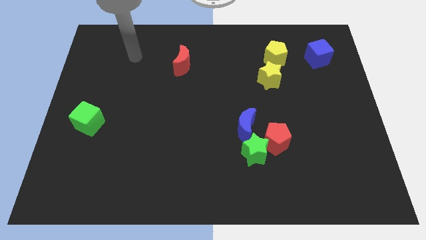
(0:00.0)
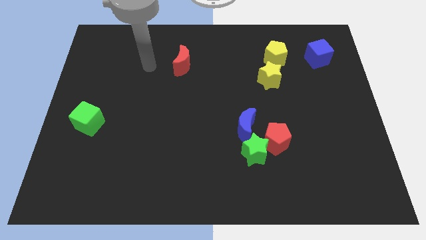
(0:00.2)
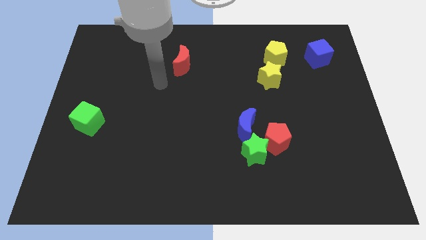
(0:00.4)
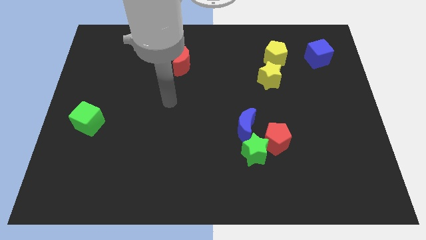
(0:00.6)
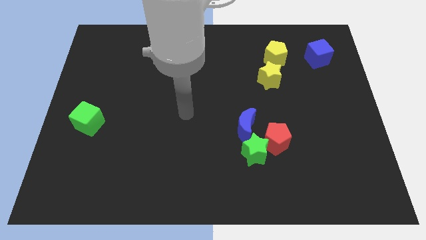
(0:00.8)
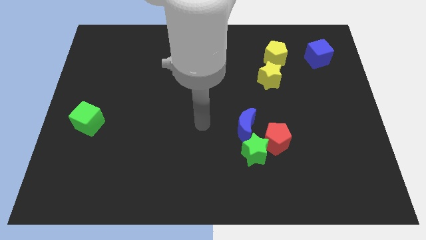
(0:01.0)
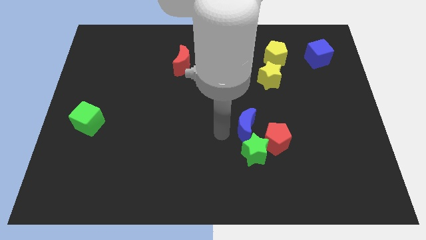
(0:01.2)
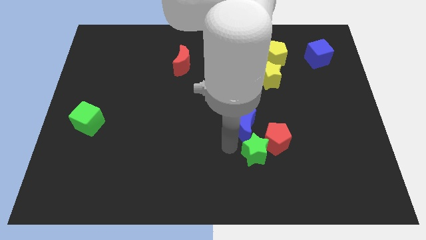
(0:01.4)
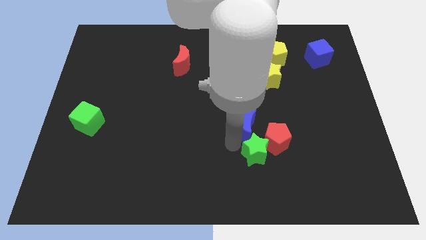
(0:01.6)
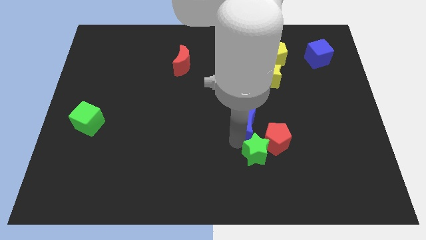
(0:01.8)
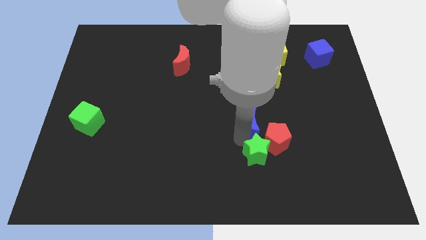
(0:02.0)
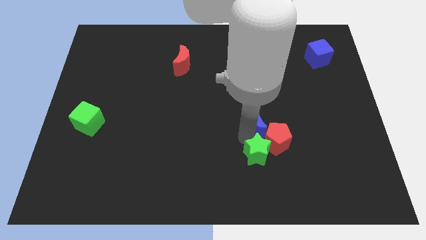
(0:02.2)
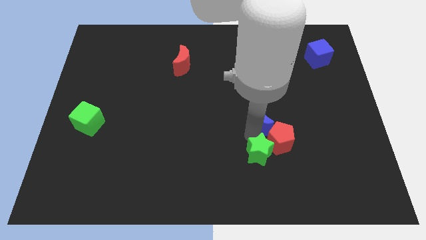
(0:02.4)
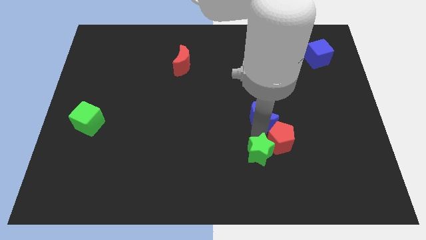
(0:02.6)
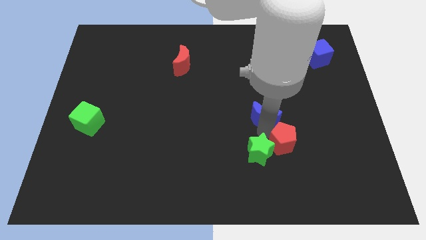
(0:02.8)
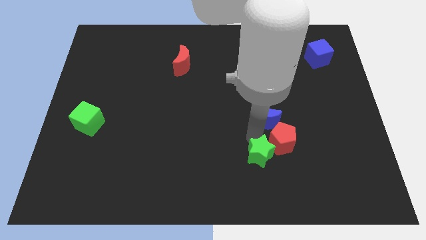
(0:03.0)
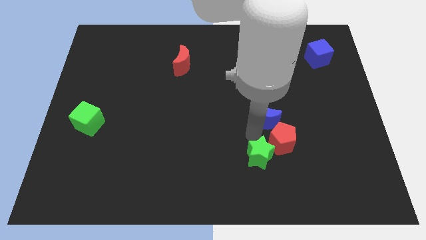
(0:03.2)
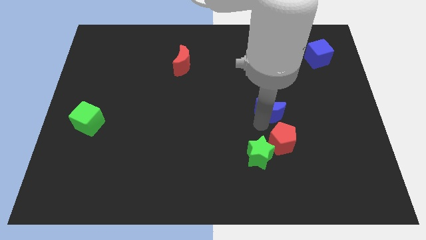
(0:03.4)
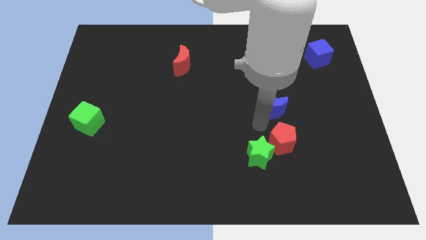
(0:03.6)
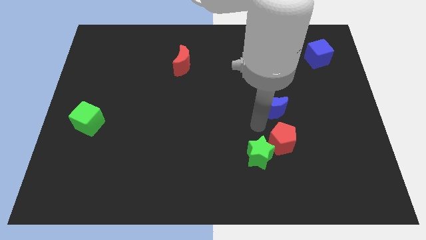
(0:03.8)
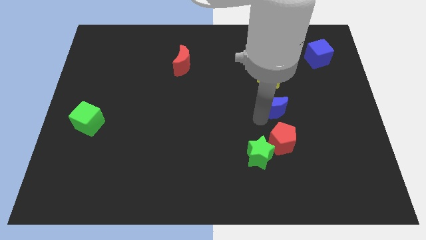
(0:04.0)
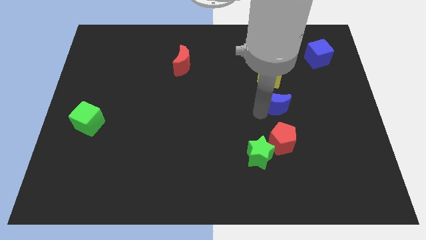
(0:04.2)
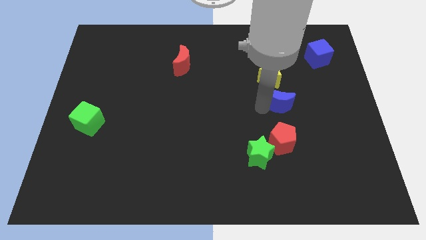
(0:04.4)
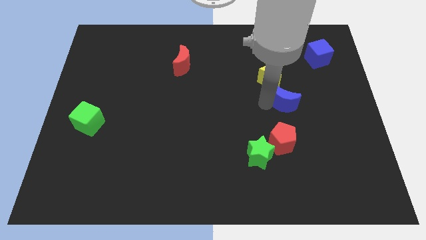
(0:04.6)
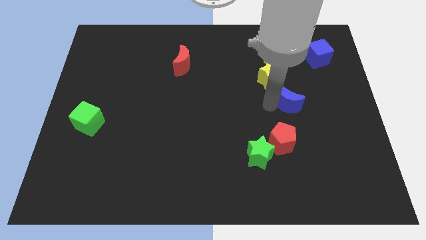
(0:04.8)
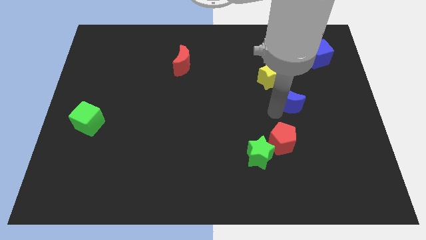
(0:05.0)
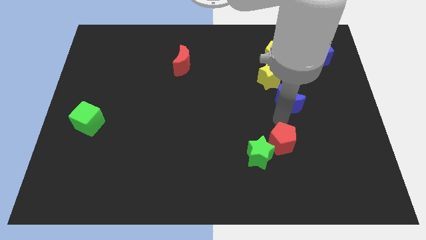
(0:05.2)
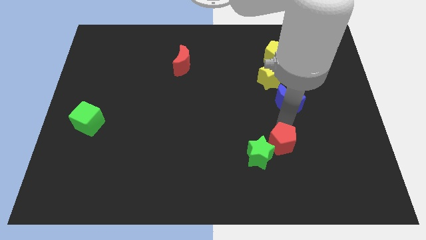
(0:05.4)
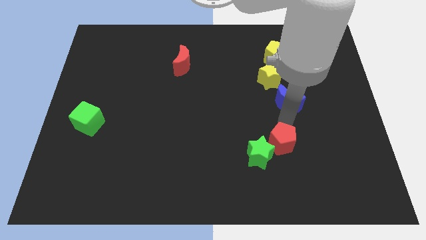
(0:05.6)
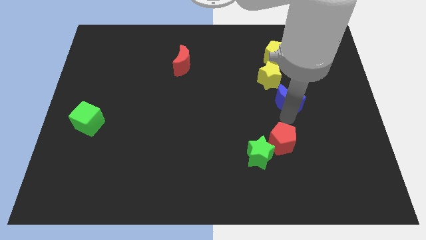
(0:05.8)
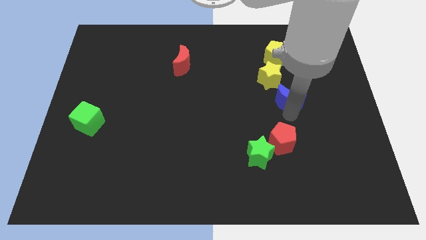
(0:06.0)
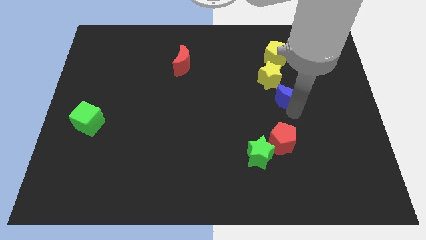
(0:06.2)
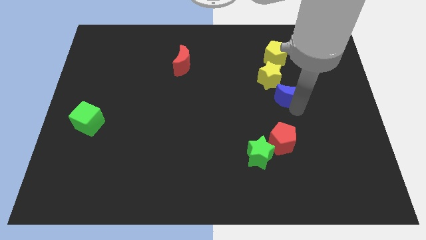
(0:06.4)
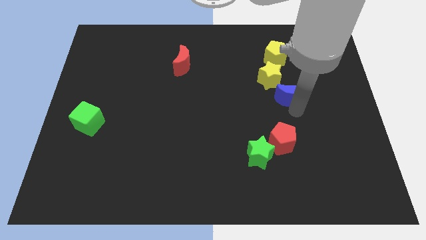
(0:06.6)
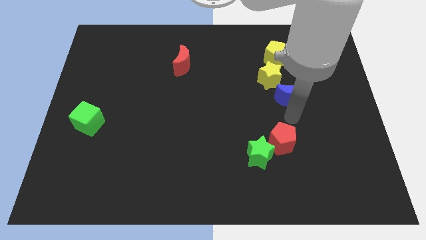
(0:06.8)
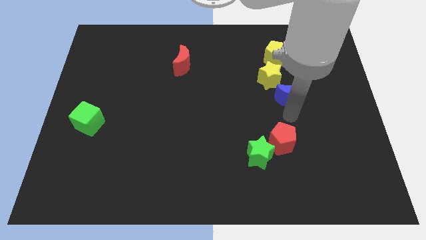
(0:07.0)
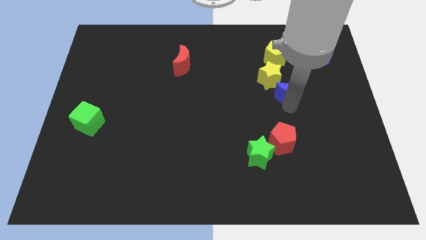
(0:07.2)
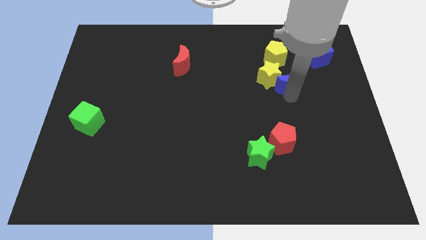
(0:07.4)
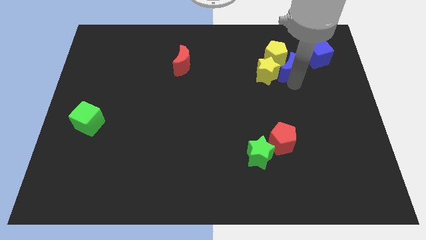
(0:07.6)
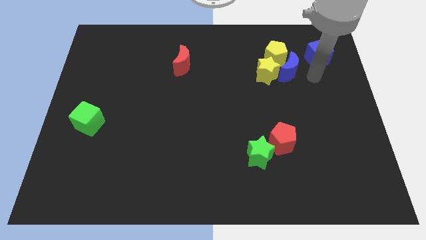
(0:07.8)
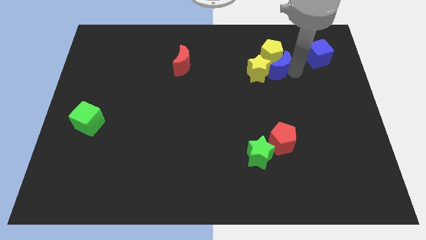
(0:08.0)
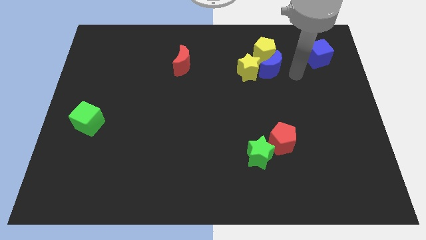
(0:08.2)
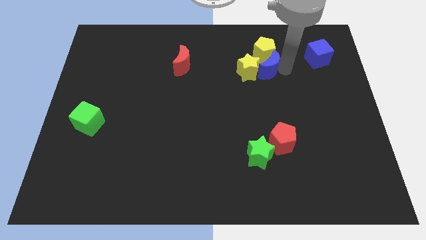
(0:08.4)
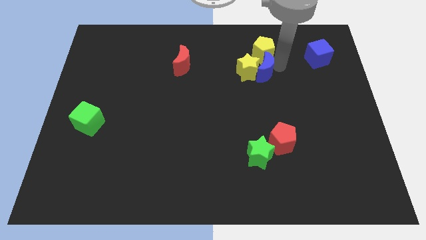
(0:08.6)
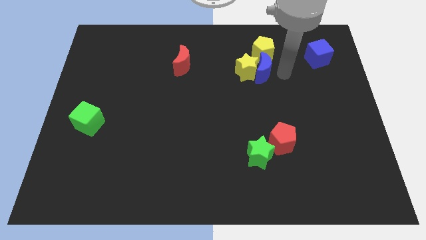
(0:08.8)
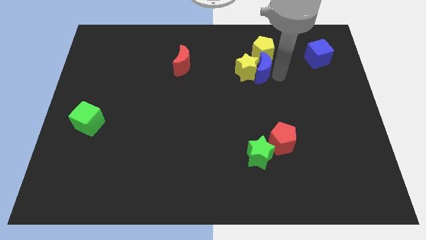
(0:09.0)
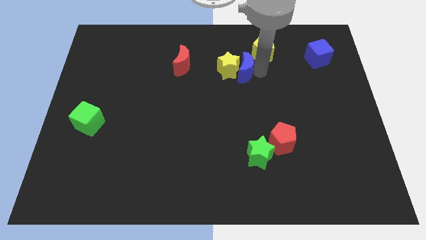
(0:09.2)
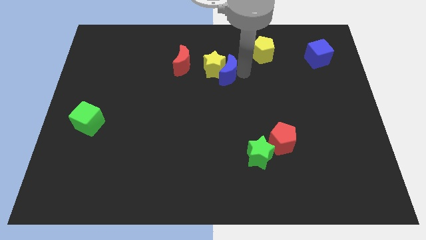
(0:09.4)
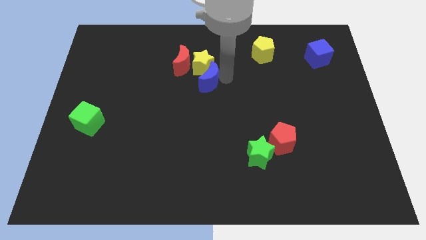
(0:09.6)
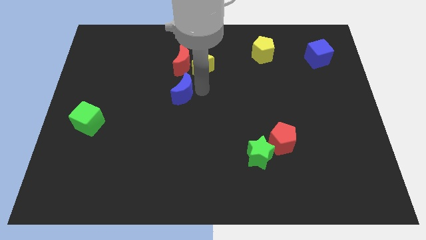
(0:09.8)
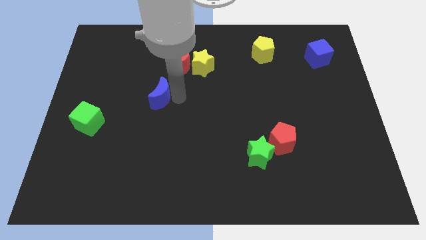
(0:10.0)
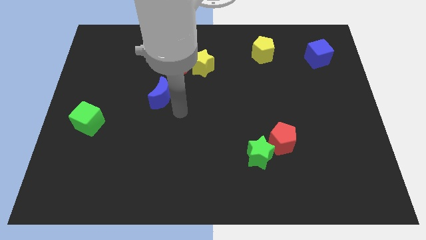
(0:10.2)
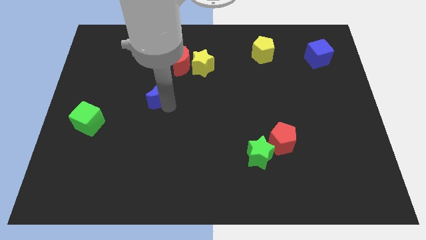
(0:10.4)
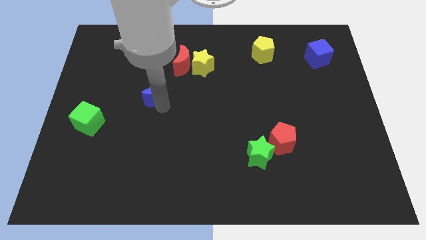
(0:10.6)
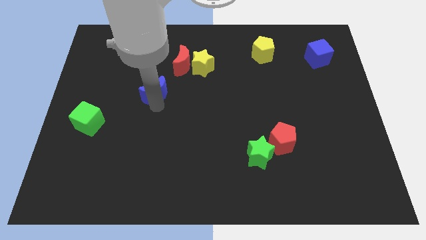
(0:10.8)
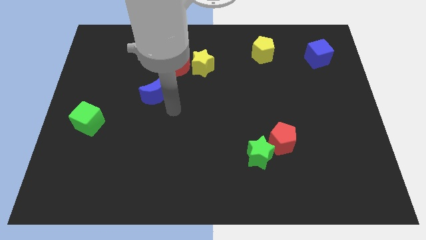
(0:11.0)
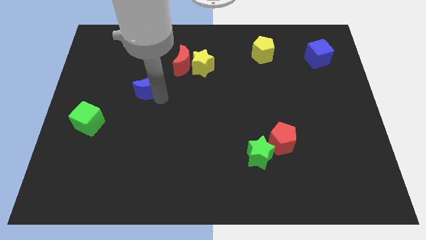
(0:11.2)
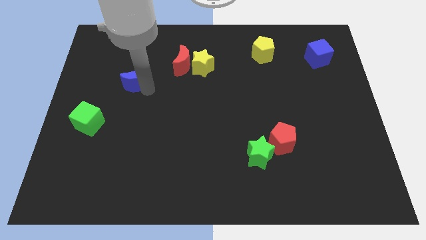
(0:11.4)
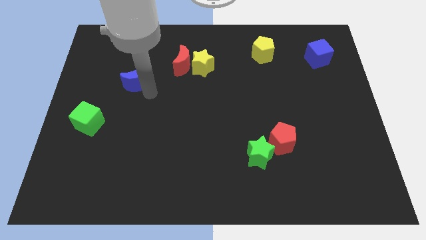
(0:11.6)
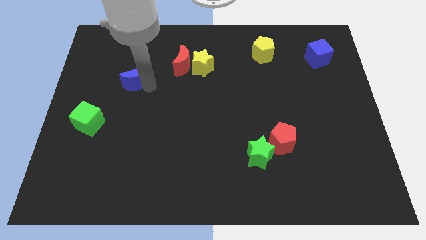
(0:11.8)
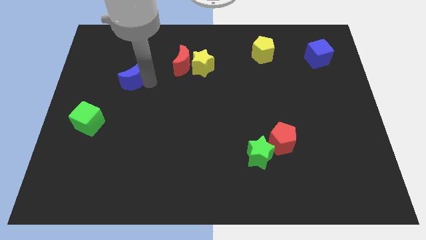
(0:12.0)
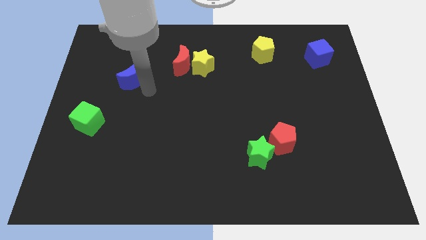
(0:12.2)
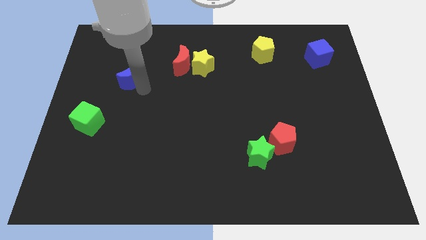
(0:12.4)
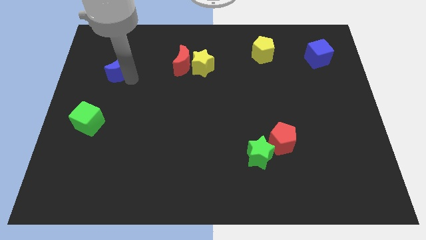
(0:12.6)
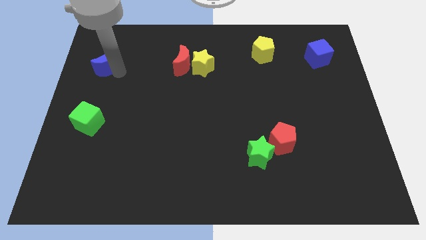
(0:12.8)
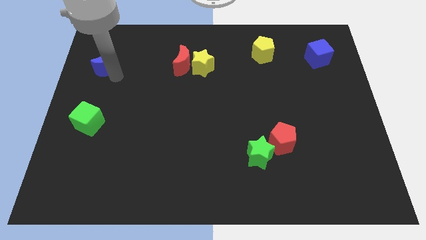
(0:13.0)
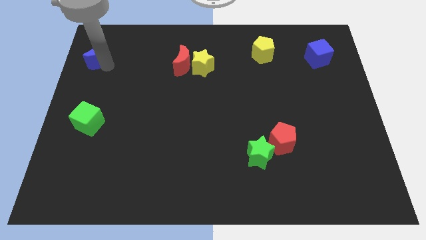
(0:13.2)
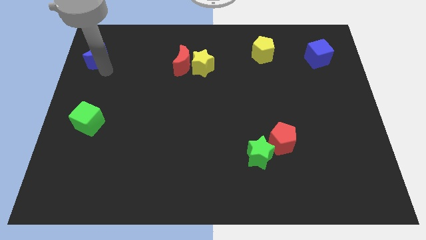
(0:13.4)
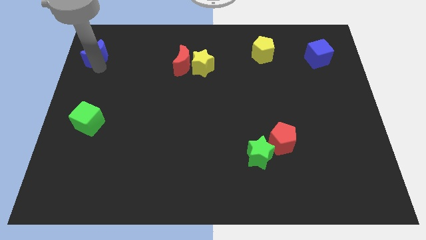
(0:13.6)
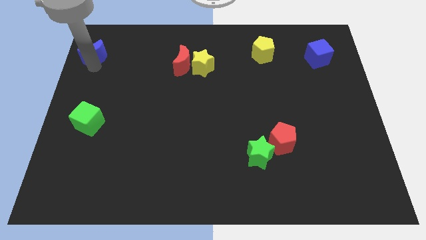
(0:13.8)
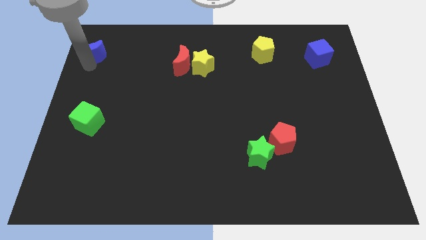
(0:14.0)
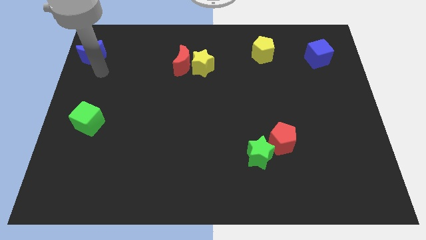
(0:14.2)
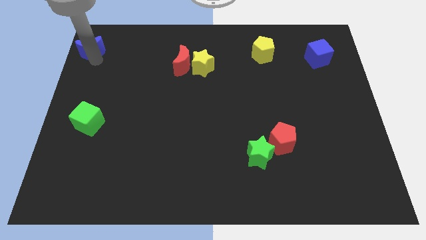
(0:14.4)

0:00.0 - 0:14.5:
push the blue moon to the top left

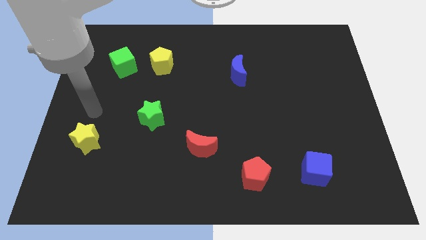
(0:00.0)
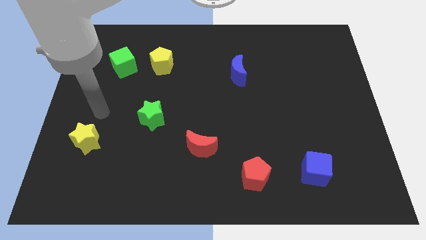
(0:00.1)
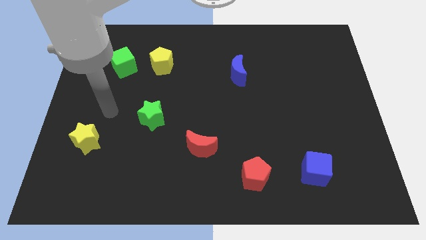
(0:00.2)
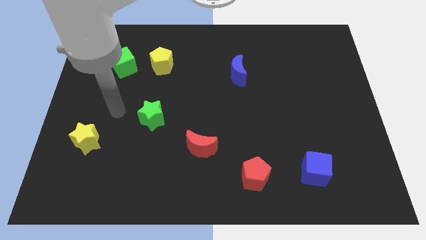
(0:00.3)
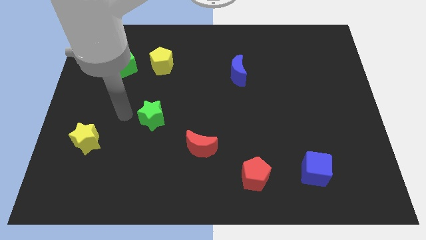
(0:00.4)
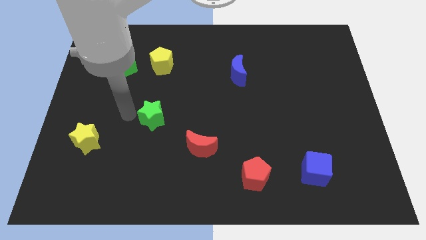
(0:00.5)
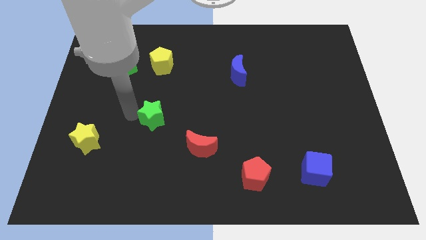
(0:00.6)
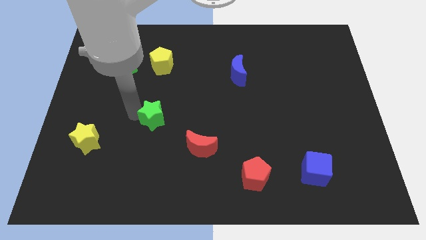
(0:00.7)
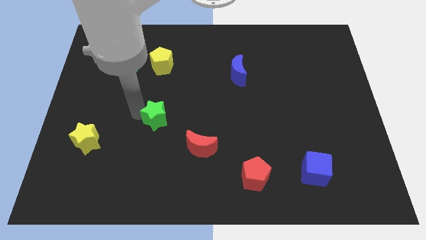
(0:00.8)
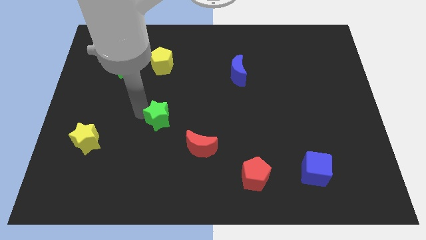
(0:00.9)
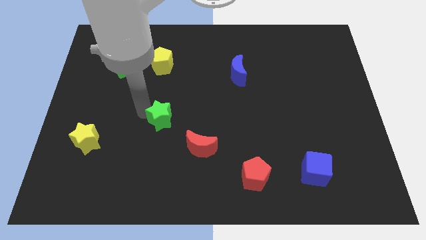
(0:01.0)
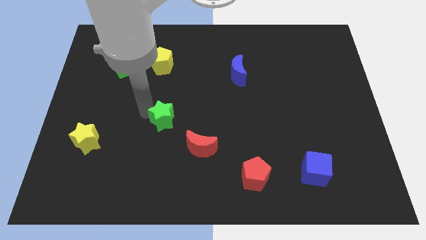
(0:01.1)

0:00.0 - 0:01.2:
slide the green star to the center of the board
